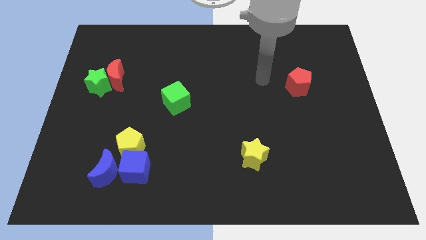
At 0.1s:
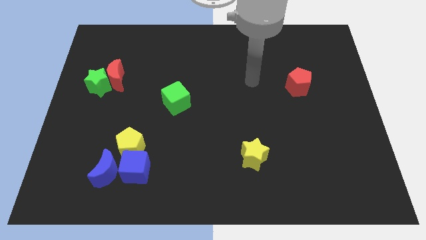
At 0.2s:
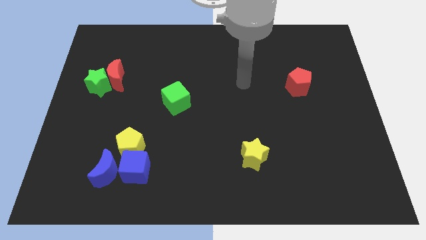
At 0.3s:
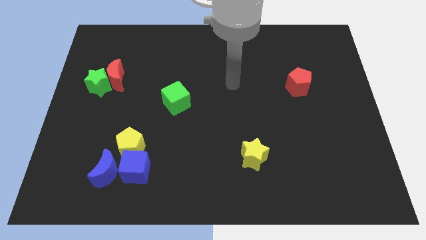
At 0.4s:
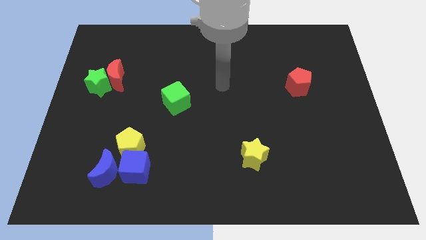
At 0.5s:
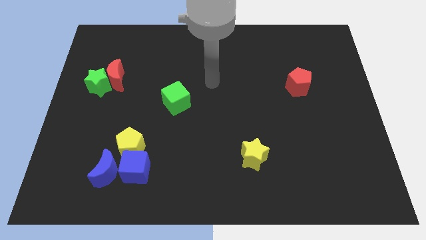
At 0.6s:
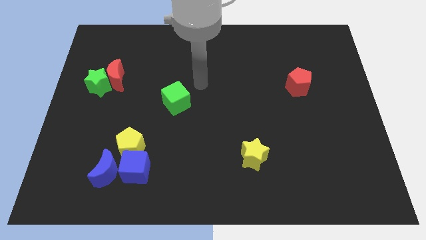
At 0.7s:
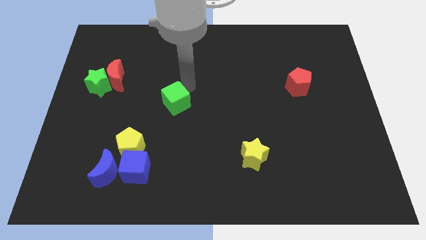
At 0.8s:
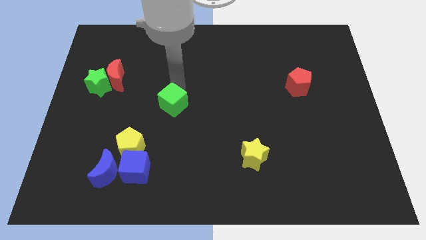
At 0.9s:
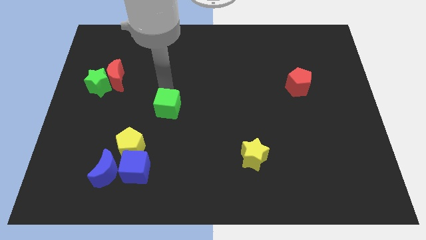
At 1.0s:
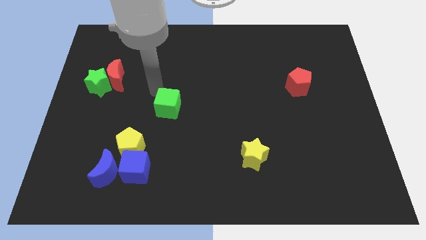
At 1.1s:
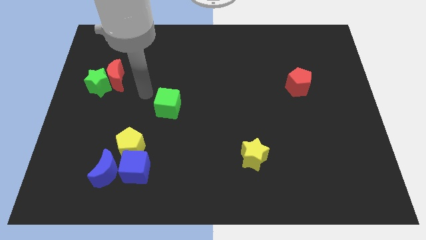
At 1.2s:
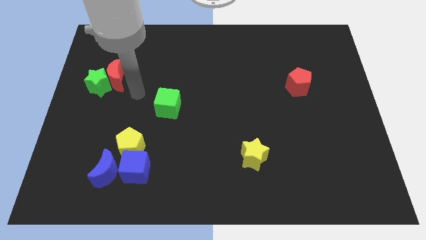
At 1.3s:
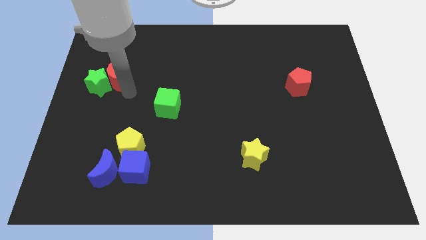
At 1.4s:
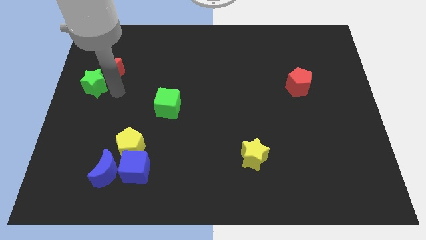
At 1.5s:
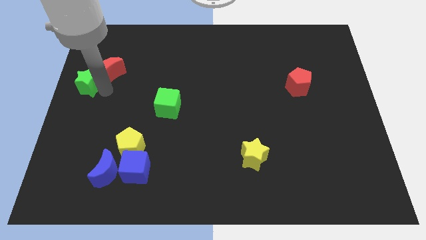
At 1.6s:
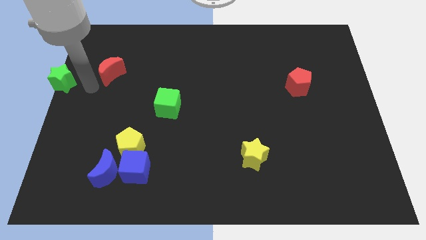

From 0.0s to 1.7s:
move the red moon away from the green star

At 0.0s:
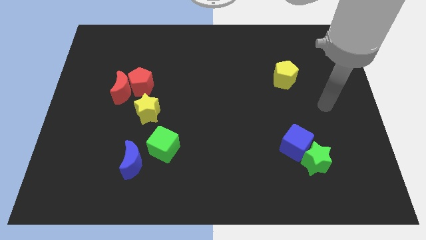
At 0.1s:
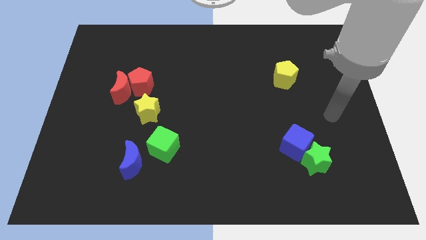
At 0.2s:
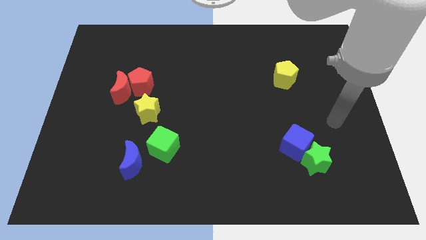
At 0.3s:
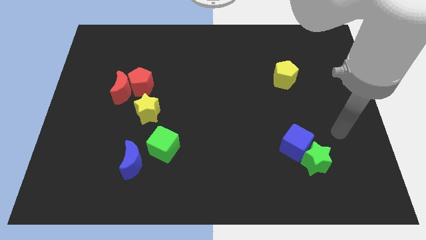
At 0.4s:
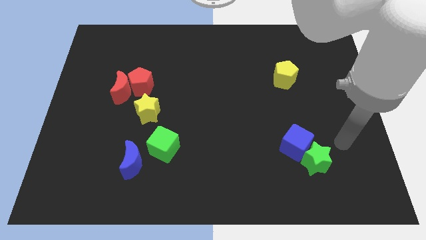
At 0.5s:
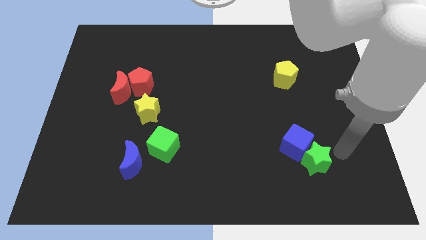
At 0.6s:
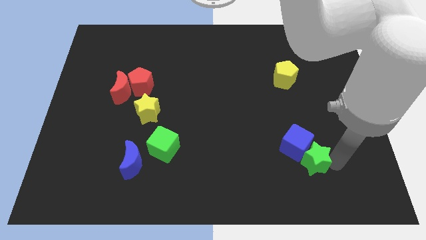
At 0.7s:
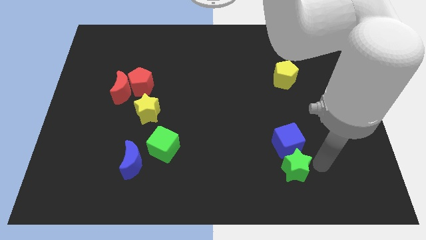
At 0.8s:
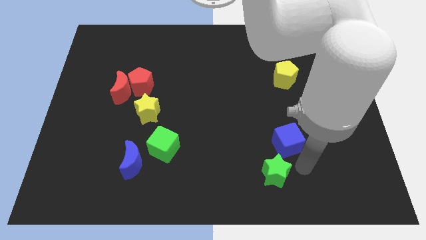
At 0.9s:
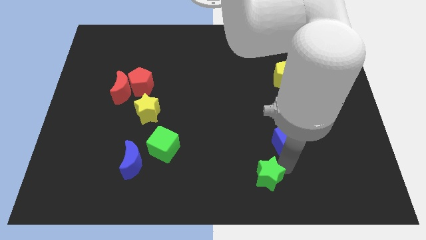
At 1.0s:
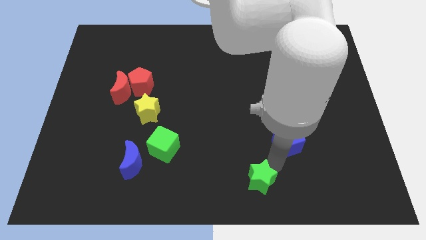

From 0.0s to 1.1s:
separate the blue cube from the green star

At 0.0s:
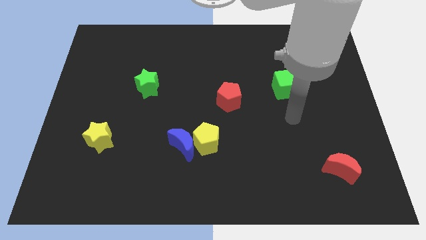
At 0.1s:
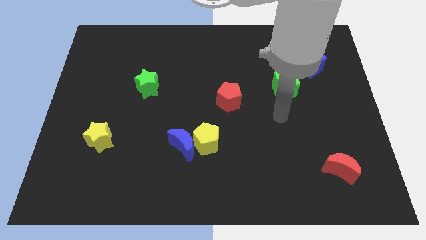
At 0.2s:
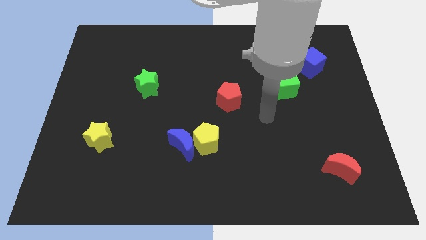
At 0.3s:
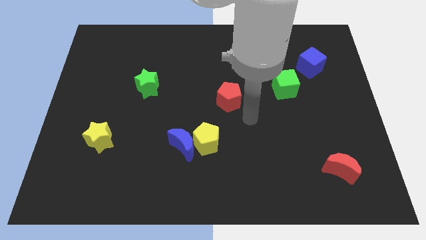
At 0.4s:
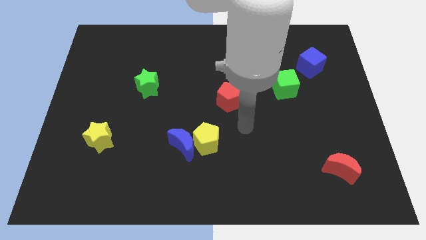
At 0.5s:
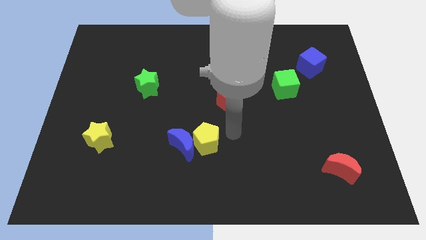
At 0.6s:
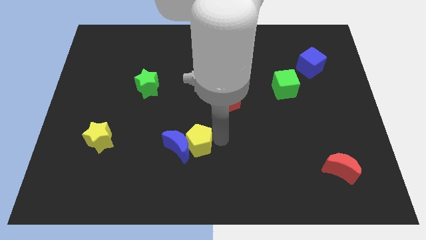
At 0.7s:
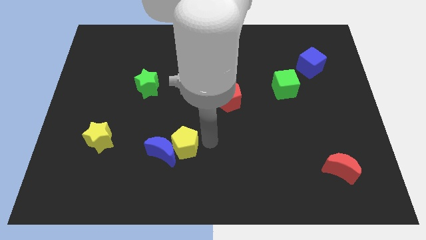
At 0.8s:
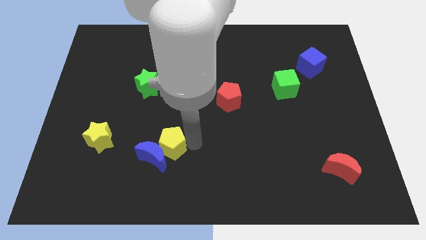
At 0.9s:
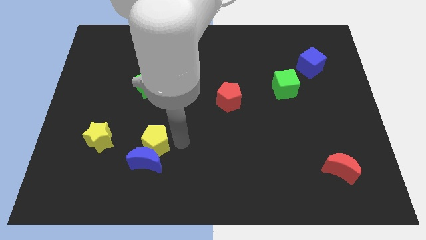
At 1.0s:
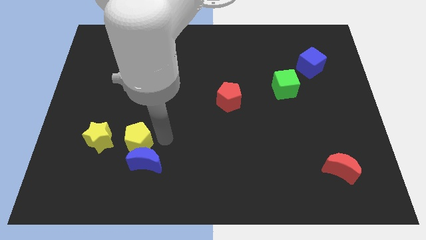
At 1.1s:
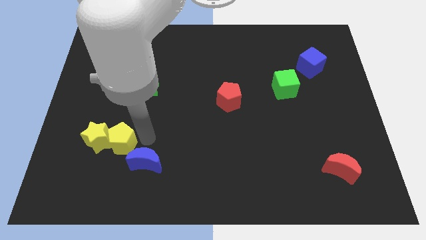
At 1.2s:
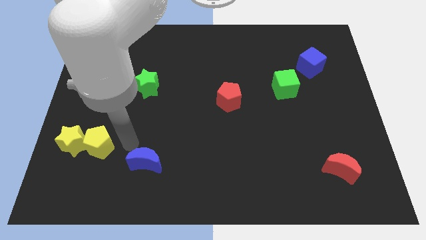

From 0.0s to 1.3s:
move the blue moon away from the yellow pentagon

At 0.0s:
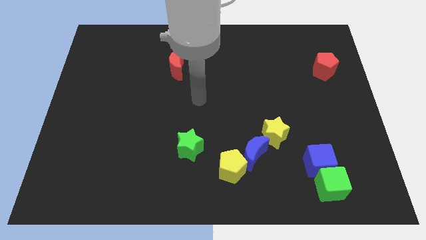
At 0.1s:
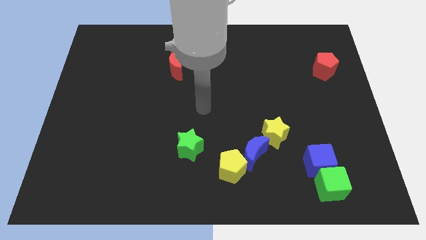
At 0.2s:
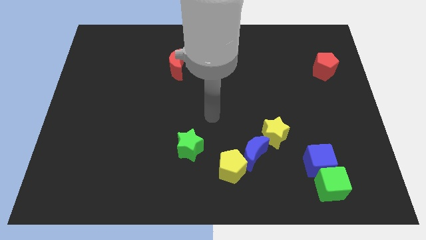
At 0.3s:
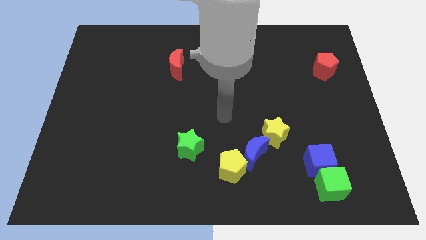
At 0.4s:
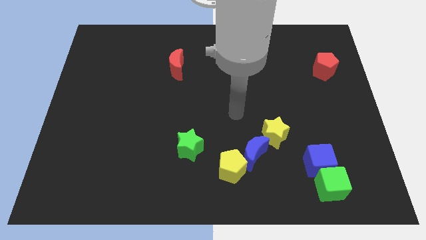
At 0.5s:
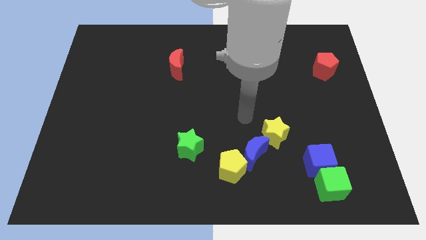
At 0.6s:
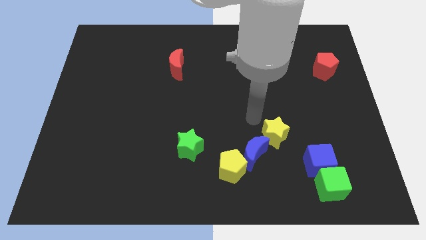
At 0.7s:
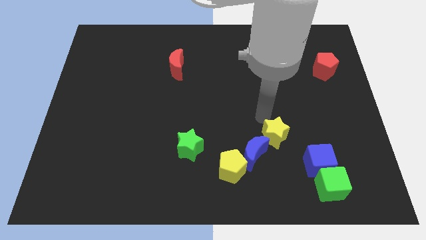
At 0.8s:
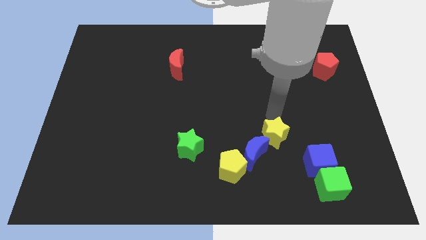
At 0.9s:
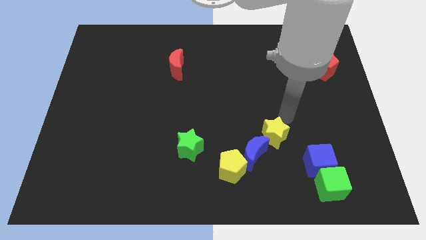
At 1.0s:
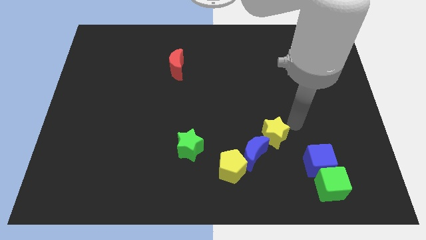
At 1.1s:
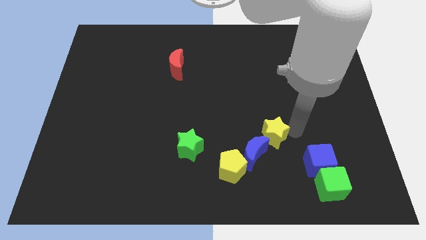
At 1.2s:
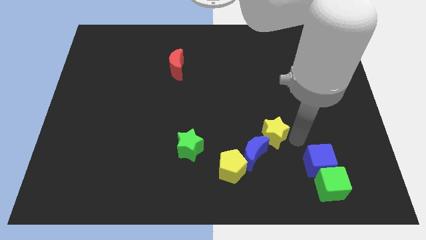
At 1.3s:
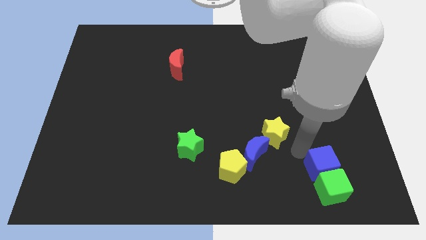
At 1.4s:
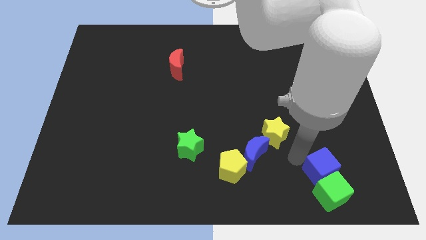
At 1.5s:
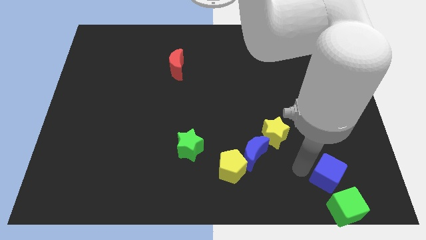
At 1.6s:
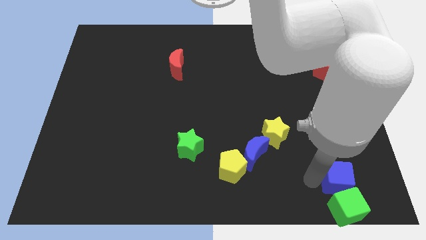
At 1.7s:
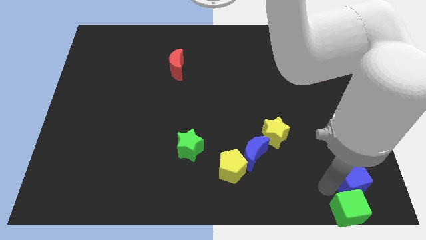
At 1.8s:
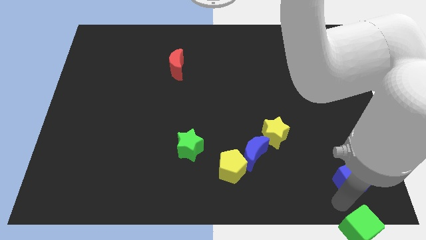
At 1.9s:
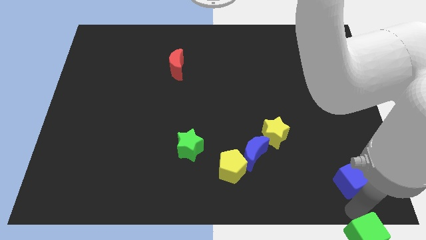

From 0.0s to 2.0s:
move the blue cube away from the green cube

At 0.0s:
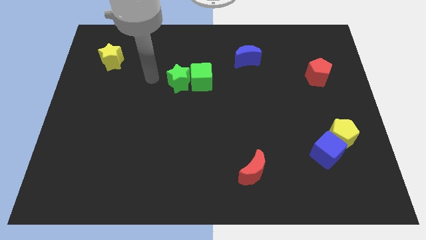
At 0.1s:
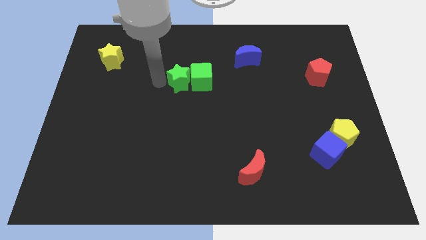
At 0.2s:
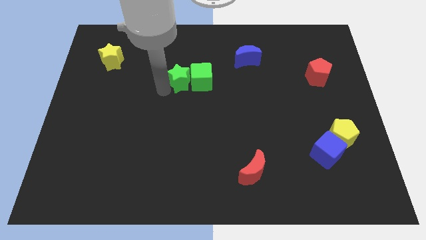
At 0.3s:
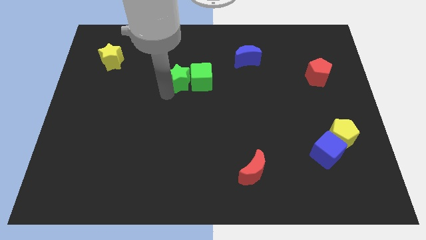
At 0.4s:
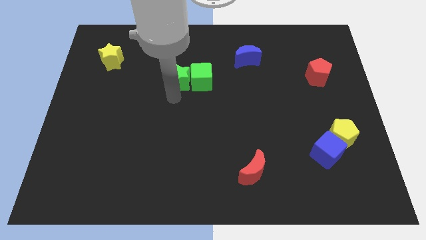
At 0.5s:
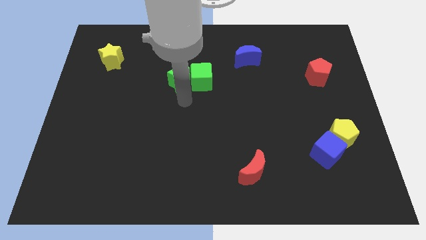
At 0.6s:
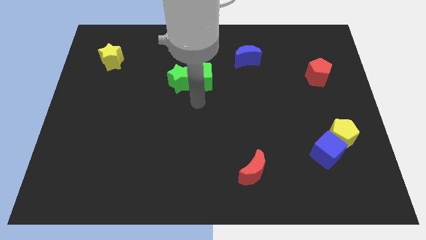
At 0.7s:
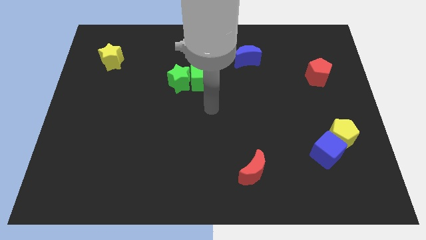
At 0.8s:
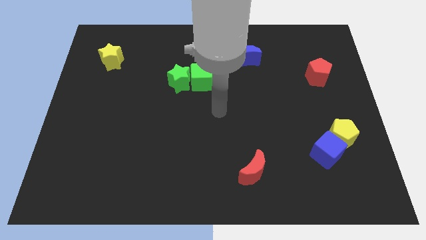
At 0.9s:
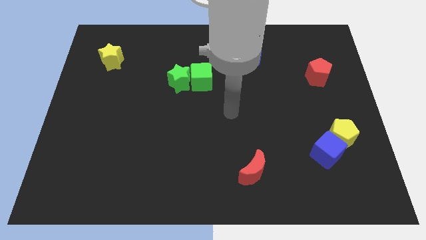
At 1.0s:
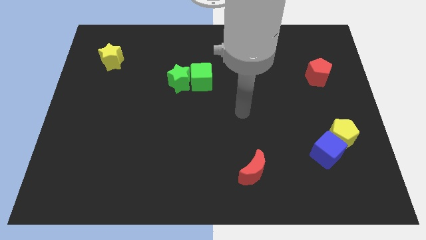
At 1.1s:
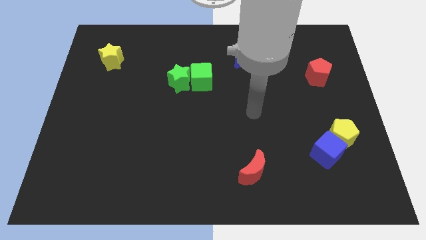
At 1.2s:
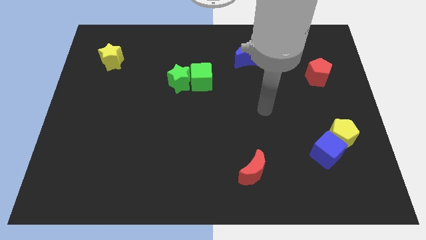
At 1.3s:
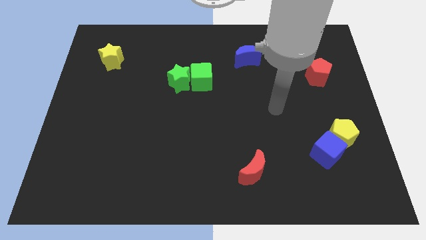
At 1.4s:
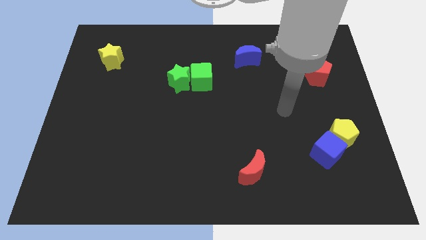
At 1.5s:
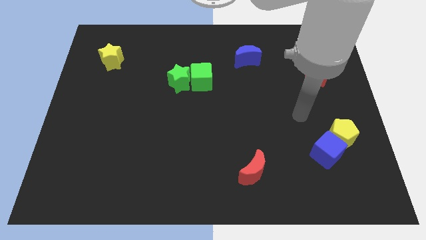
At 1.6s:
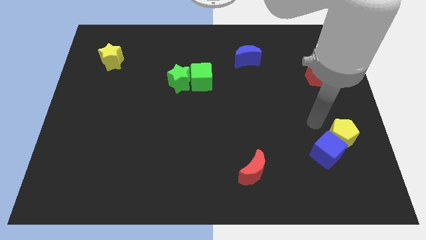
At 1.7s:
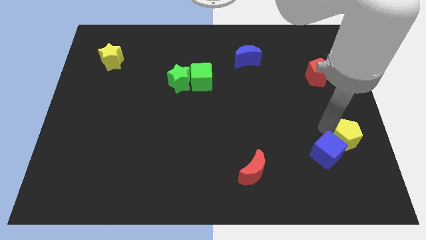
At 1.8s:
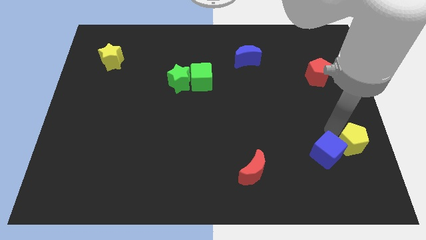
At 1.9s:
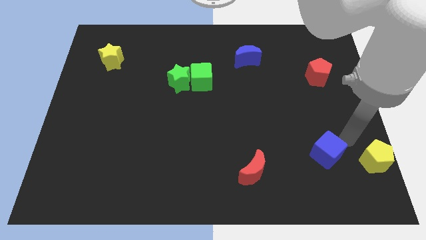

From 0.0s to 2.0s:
move the blue cube away from the yellow pentagon

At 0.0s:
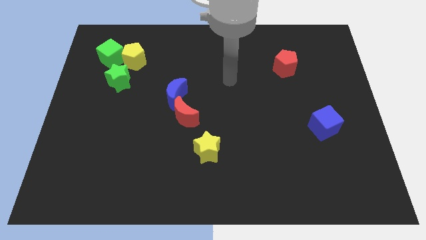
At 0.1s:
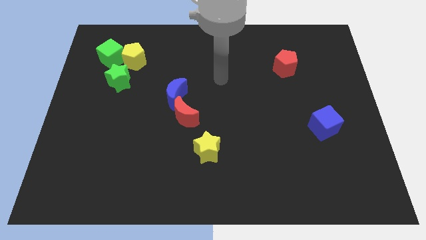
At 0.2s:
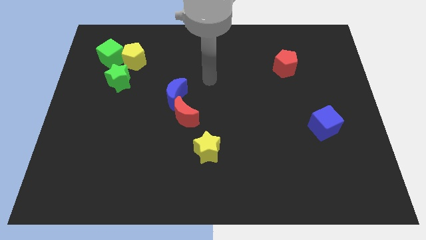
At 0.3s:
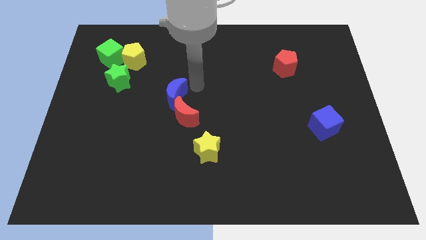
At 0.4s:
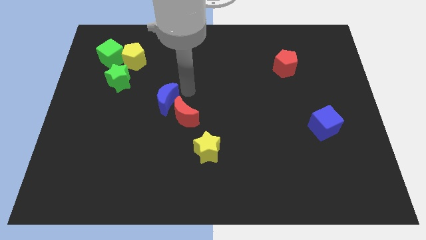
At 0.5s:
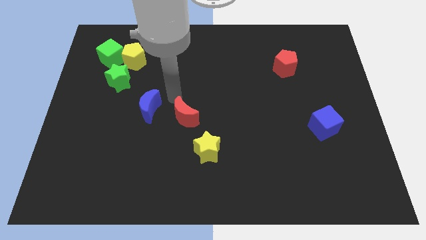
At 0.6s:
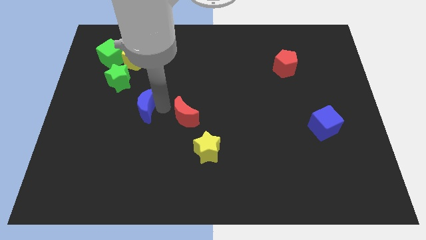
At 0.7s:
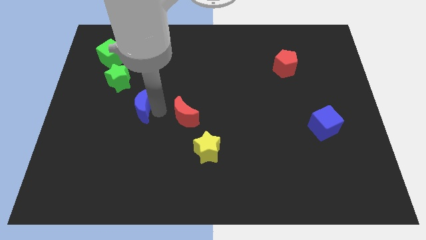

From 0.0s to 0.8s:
pull the red moon apart from the blue moon

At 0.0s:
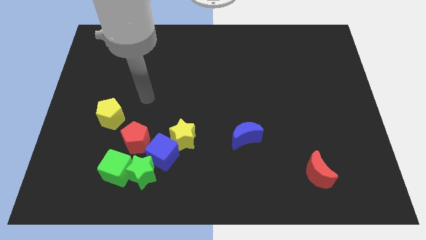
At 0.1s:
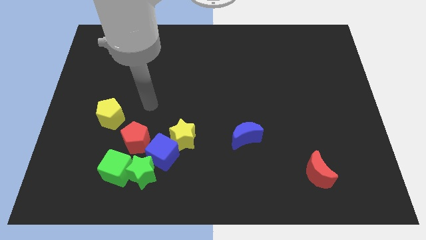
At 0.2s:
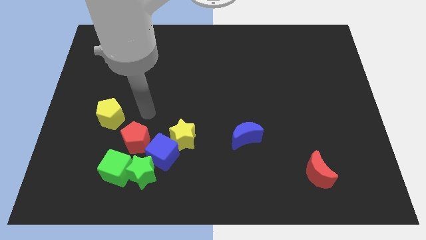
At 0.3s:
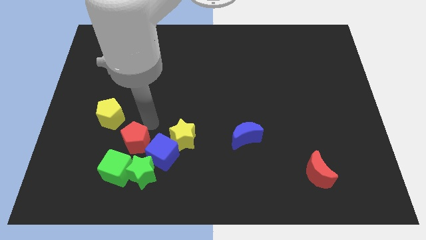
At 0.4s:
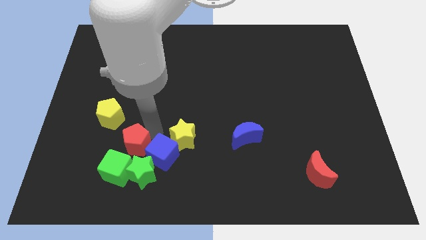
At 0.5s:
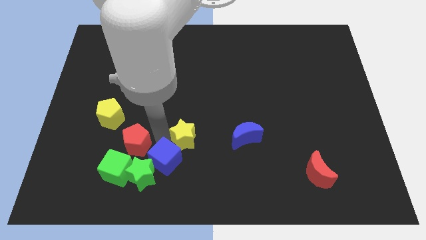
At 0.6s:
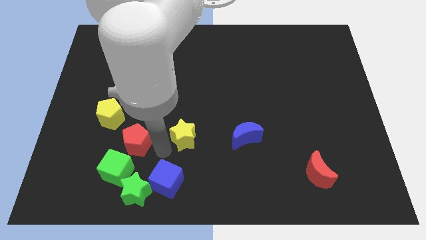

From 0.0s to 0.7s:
pull the yellow star apart from the blue cube
